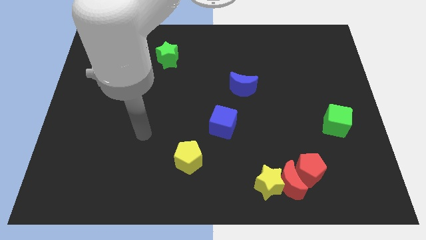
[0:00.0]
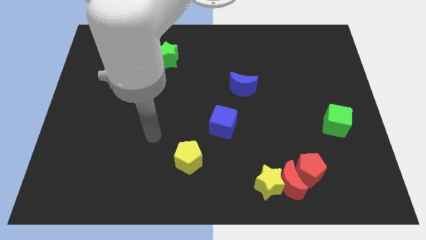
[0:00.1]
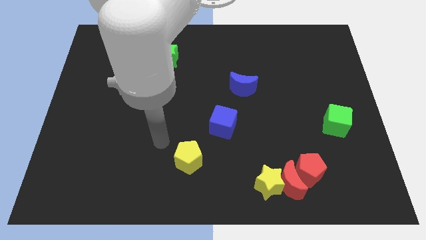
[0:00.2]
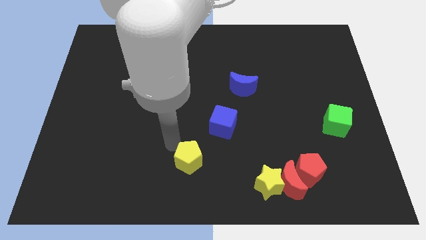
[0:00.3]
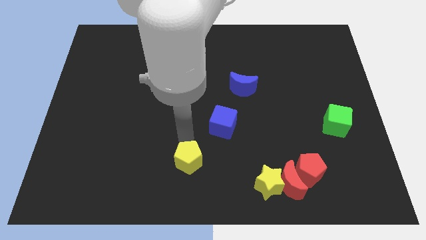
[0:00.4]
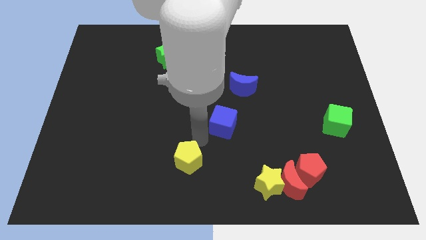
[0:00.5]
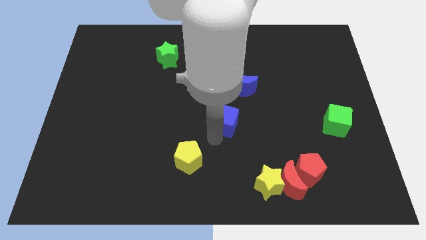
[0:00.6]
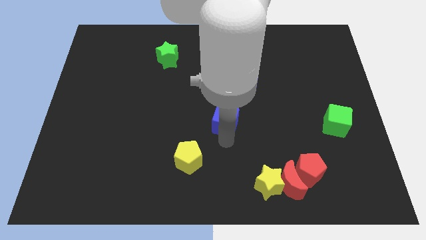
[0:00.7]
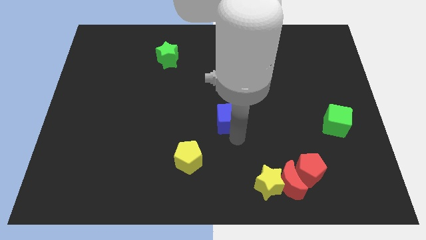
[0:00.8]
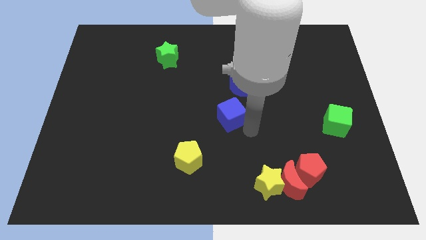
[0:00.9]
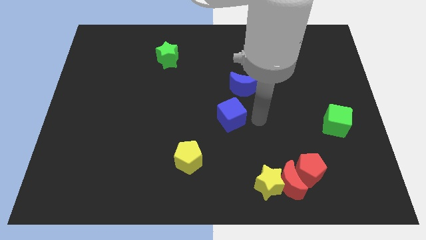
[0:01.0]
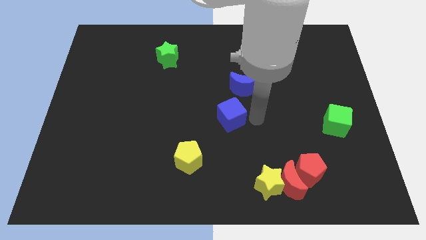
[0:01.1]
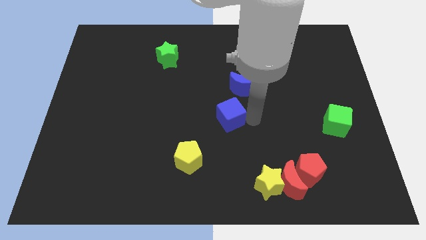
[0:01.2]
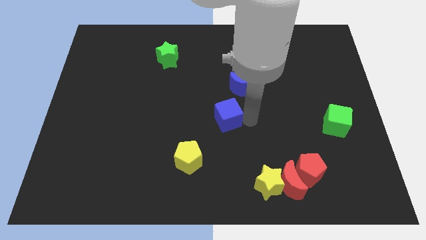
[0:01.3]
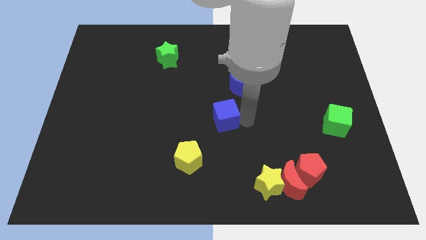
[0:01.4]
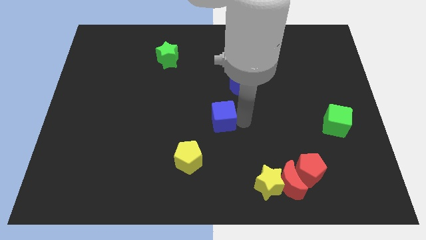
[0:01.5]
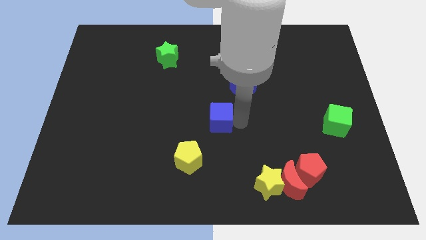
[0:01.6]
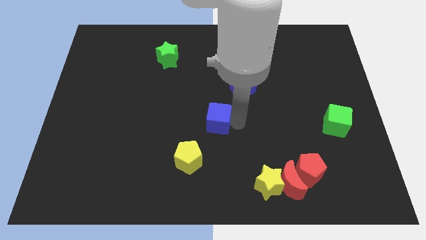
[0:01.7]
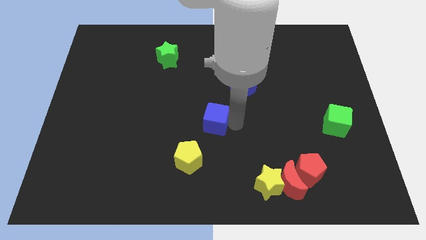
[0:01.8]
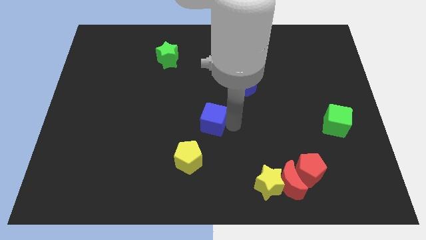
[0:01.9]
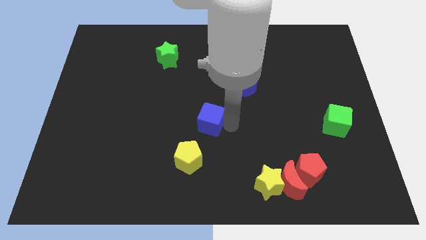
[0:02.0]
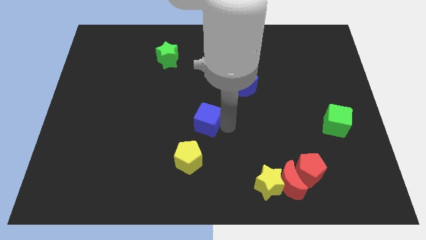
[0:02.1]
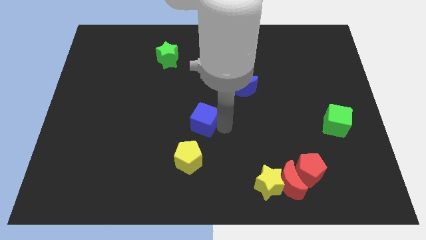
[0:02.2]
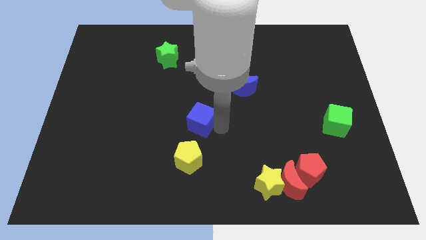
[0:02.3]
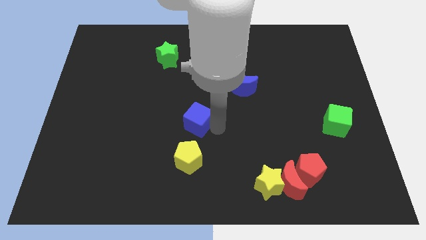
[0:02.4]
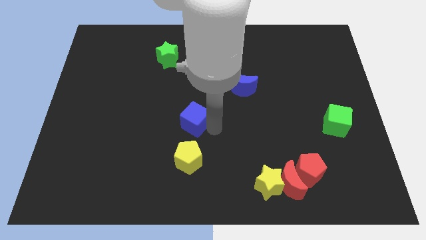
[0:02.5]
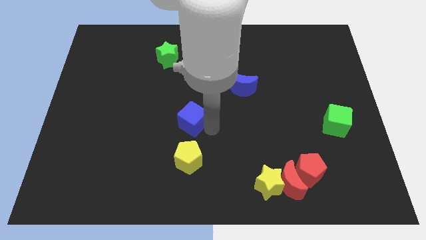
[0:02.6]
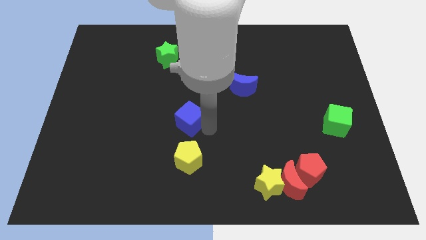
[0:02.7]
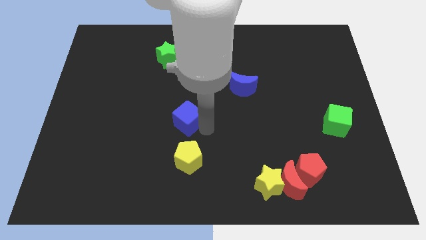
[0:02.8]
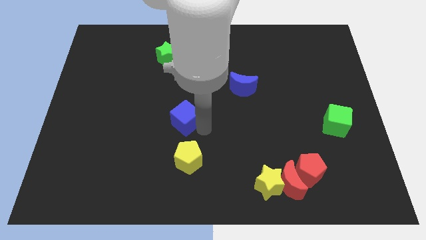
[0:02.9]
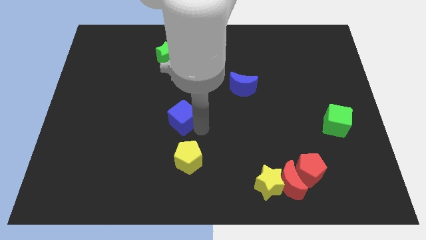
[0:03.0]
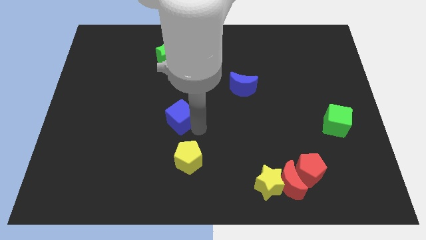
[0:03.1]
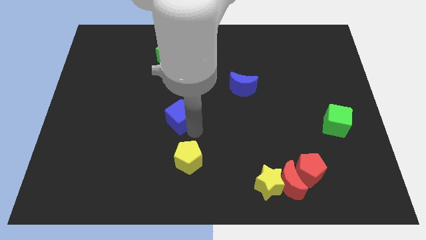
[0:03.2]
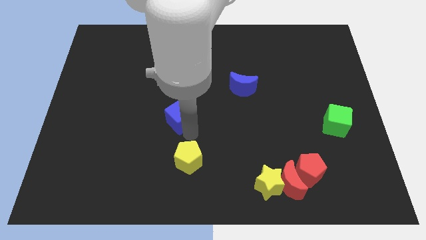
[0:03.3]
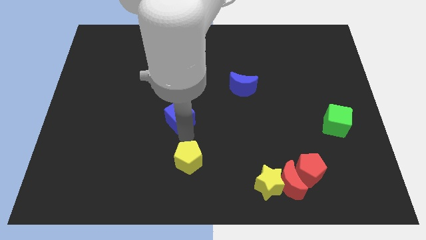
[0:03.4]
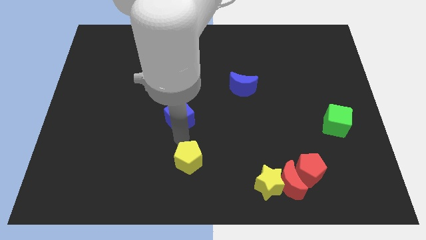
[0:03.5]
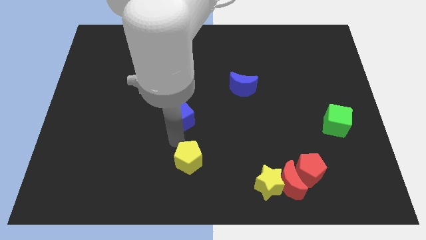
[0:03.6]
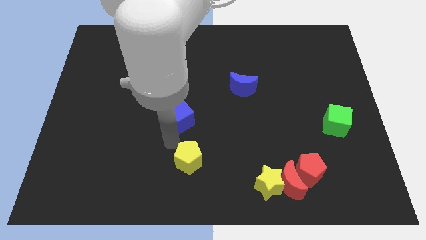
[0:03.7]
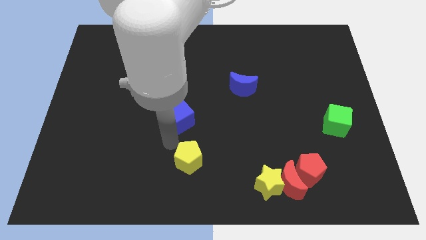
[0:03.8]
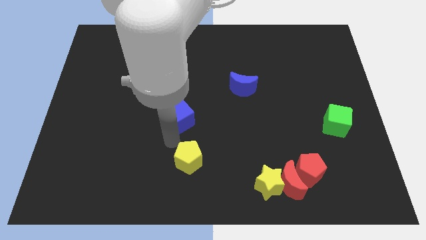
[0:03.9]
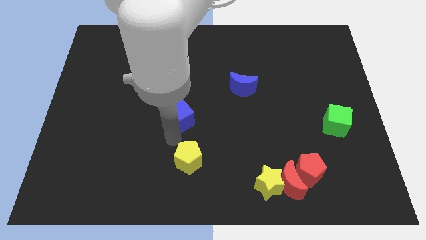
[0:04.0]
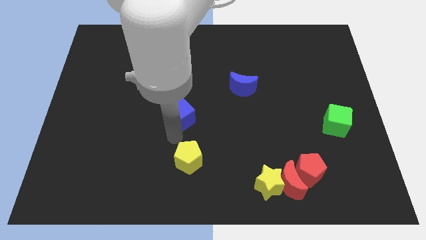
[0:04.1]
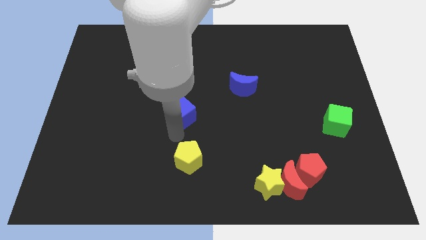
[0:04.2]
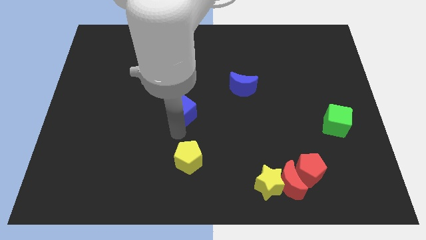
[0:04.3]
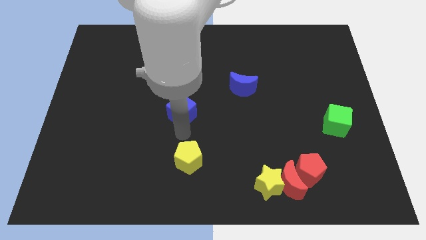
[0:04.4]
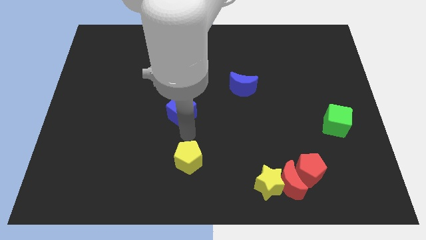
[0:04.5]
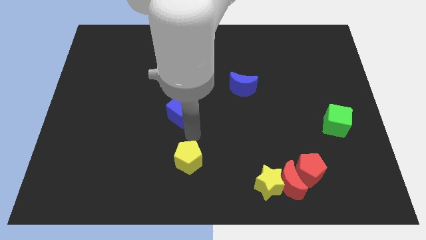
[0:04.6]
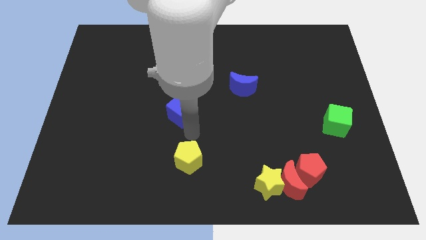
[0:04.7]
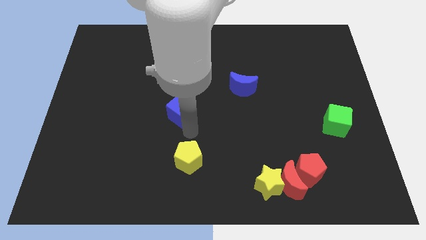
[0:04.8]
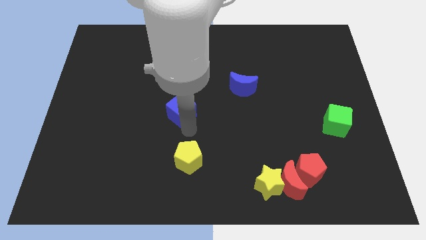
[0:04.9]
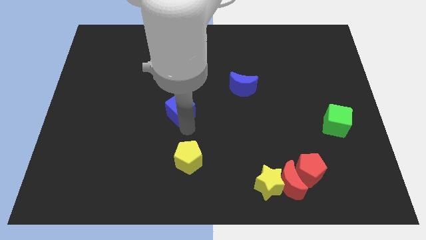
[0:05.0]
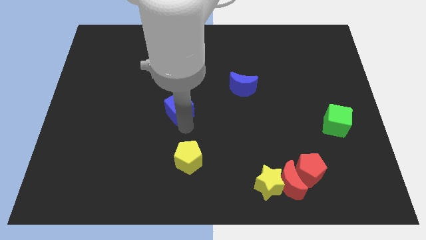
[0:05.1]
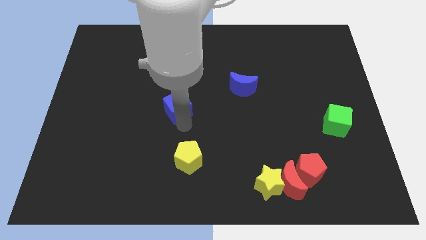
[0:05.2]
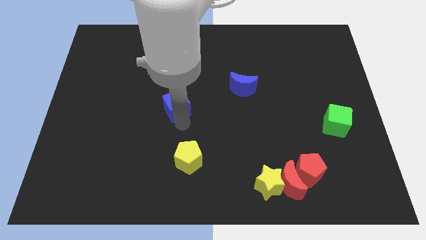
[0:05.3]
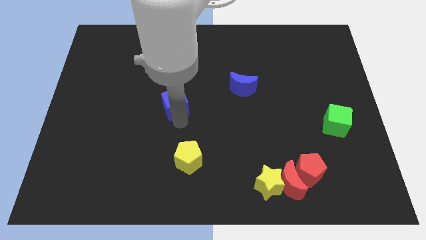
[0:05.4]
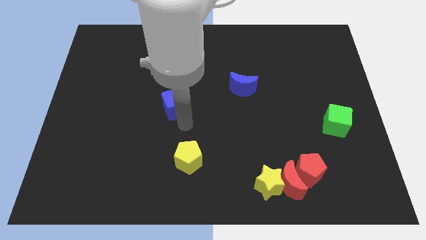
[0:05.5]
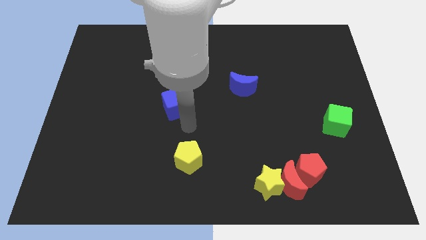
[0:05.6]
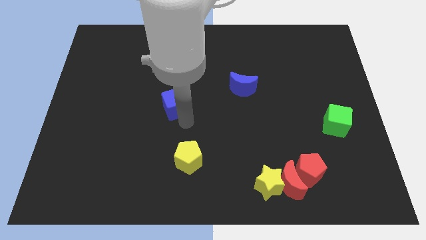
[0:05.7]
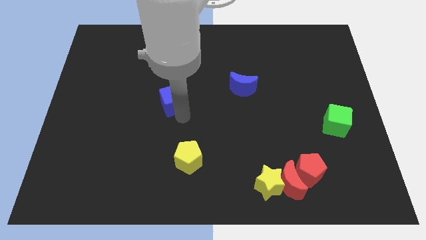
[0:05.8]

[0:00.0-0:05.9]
move the blue cube to the bottom of the green star

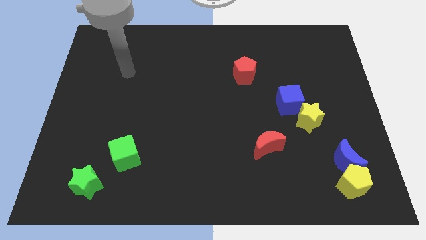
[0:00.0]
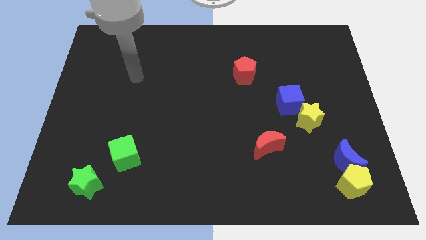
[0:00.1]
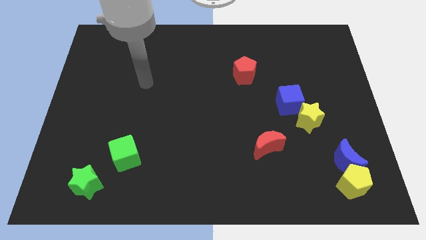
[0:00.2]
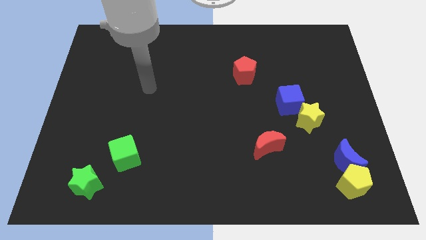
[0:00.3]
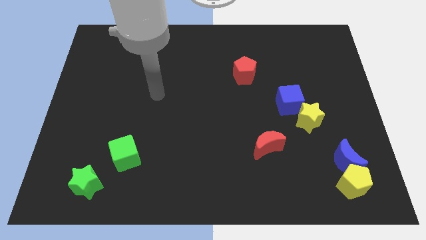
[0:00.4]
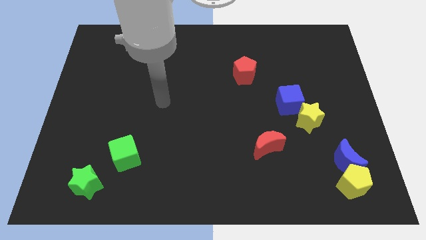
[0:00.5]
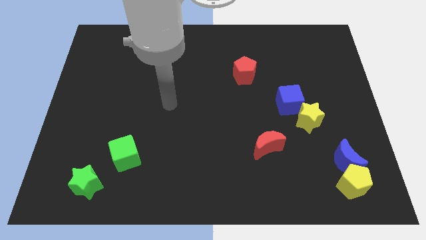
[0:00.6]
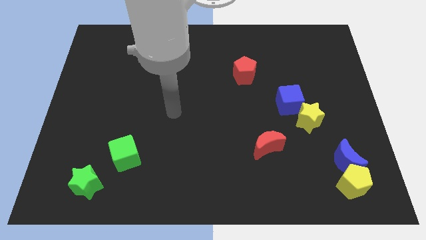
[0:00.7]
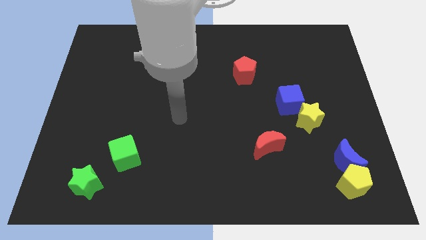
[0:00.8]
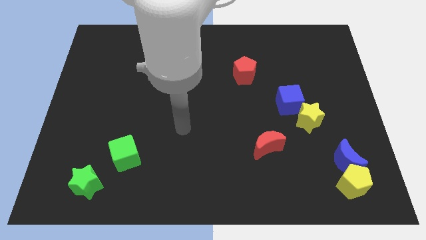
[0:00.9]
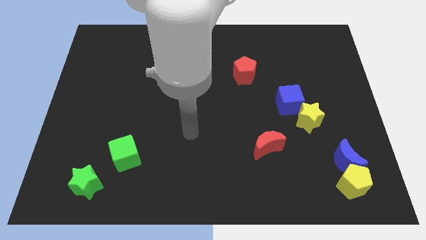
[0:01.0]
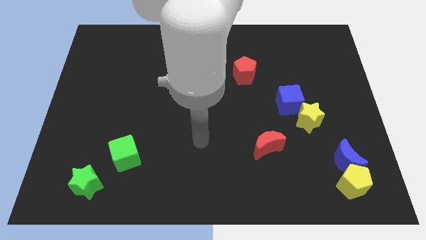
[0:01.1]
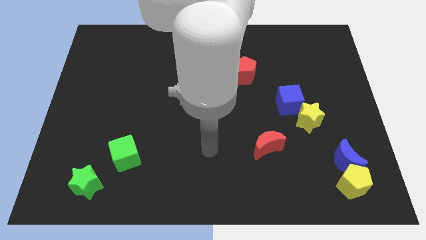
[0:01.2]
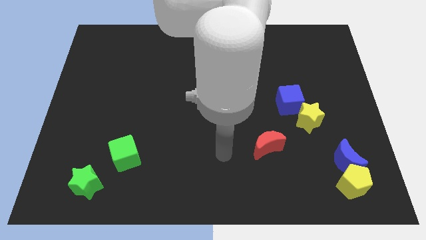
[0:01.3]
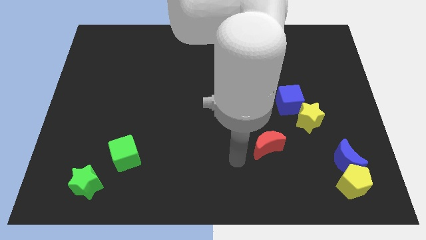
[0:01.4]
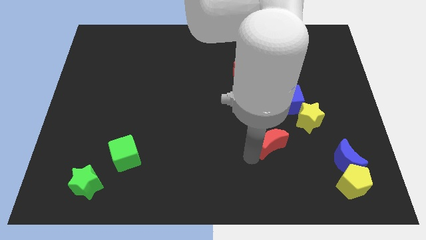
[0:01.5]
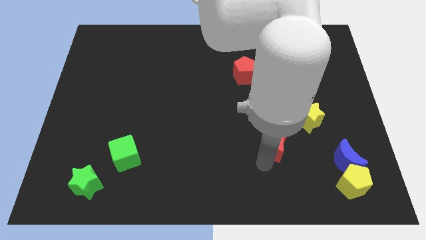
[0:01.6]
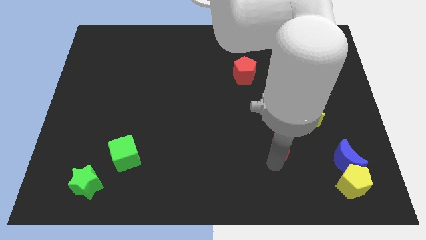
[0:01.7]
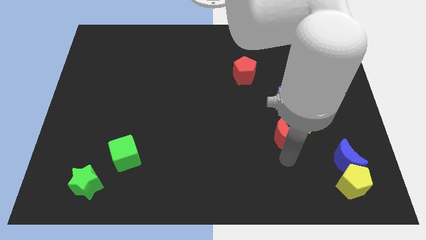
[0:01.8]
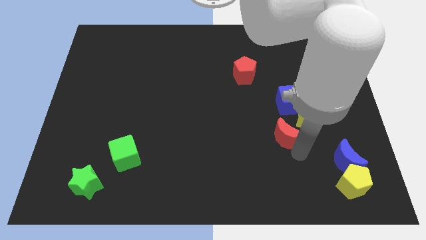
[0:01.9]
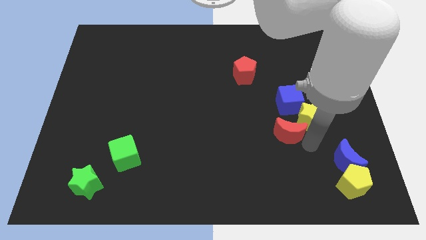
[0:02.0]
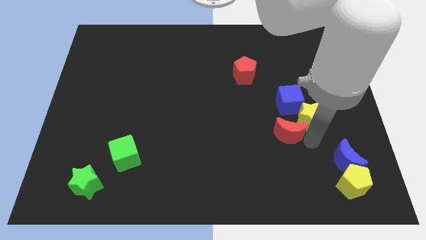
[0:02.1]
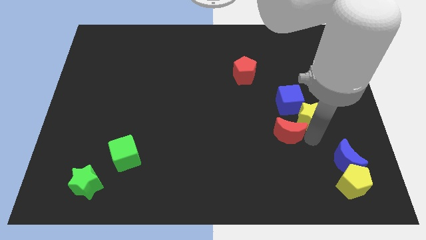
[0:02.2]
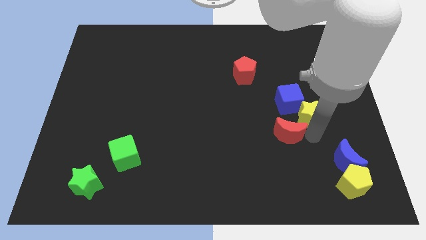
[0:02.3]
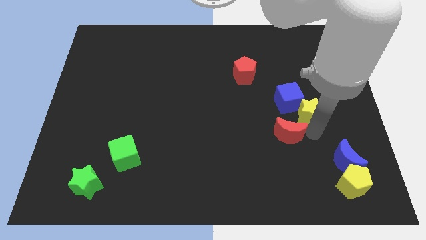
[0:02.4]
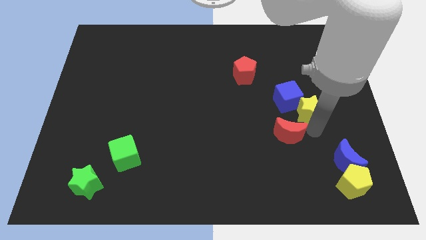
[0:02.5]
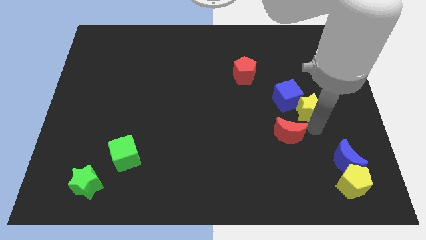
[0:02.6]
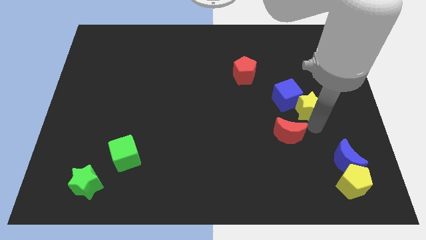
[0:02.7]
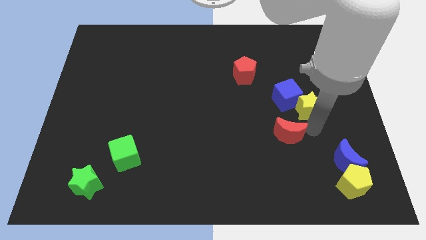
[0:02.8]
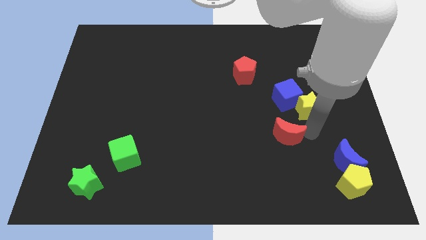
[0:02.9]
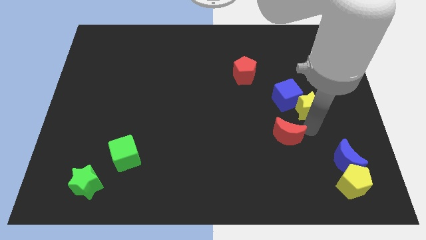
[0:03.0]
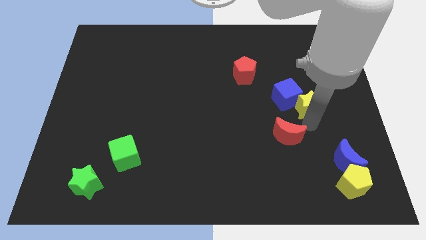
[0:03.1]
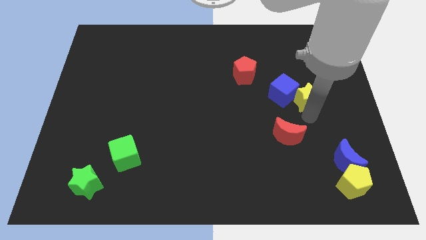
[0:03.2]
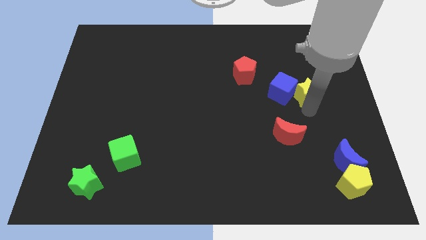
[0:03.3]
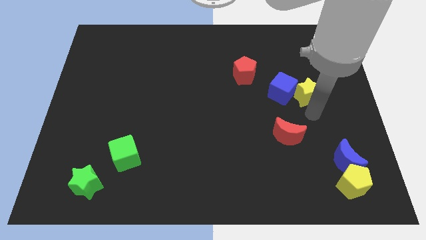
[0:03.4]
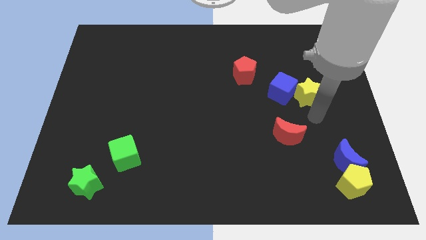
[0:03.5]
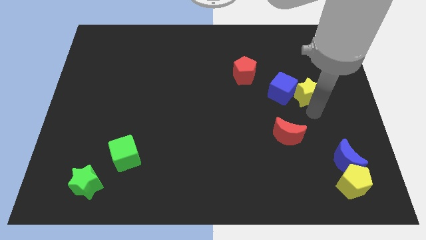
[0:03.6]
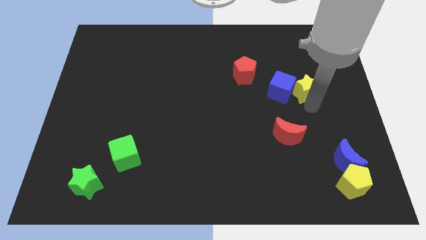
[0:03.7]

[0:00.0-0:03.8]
slide the yellow star to the top right of the blue cube
